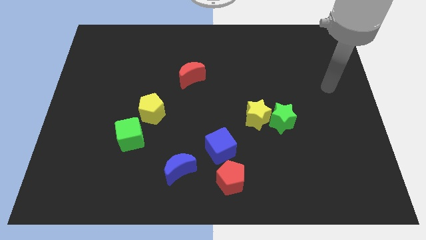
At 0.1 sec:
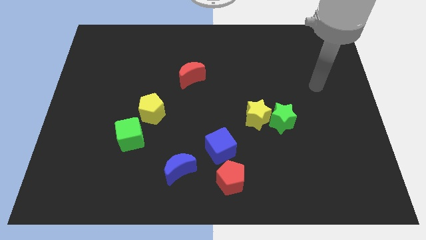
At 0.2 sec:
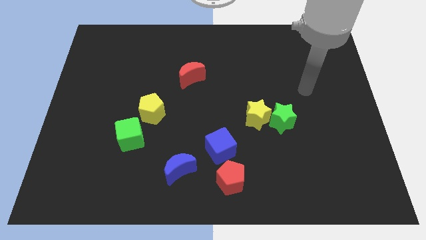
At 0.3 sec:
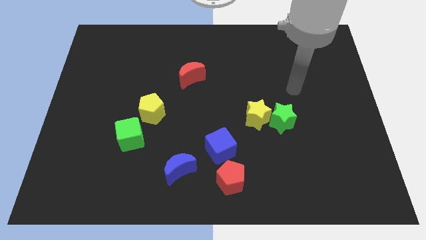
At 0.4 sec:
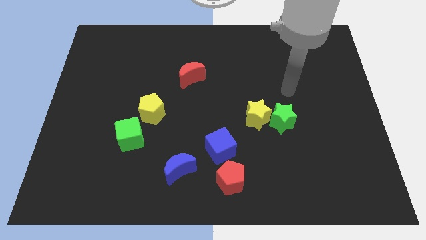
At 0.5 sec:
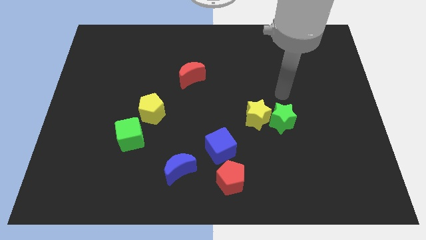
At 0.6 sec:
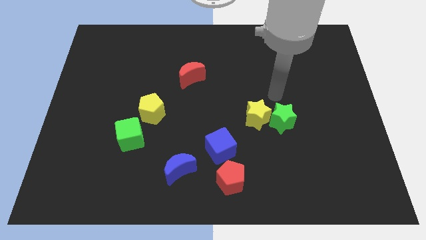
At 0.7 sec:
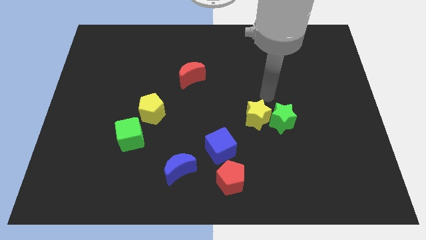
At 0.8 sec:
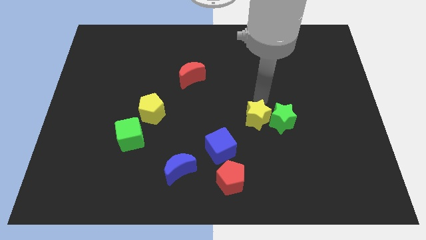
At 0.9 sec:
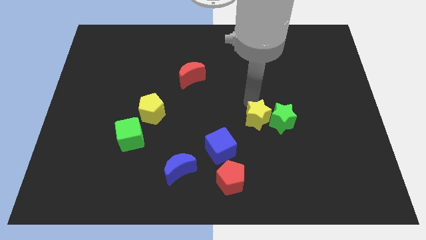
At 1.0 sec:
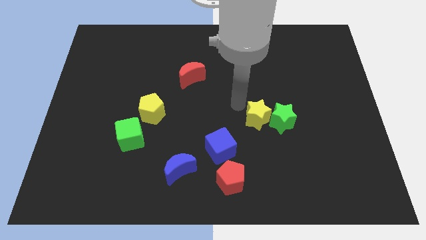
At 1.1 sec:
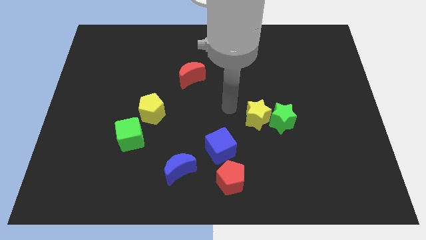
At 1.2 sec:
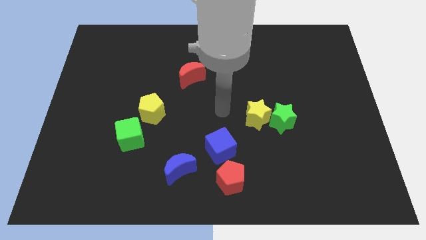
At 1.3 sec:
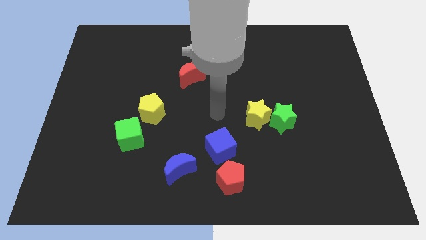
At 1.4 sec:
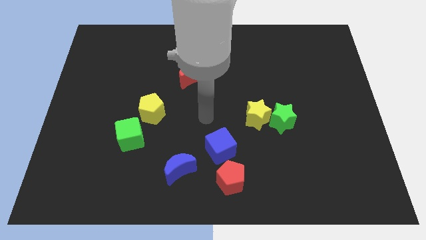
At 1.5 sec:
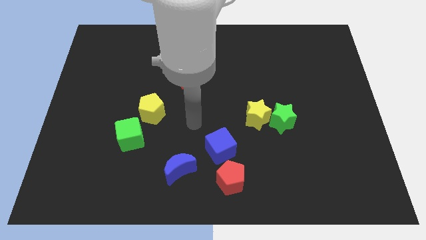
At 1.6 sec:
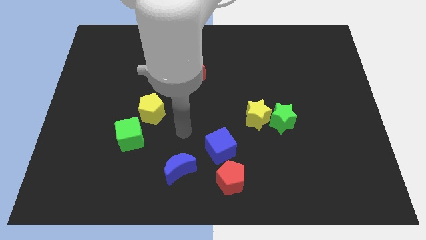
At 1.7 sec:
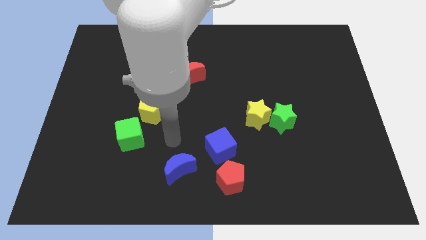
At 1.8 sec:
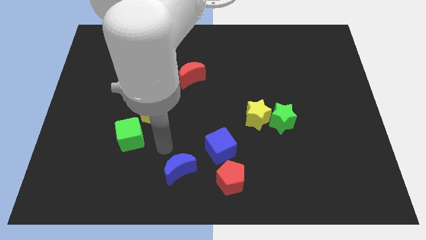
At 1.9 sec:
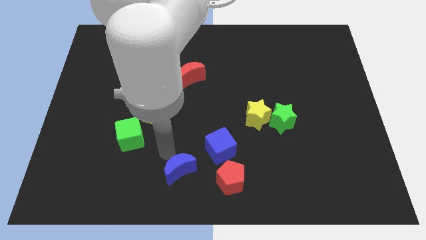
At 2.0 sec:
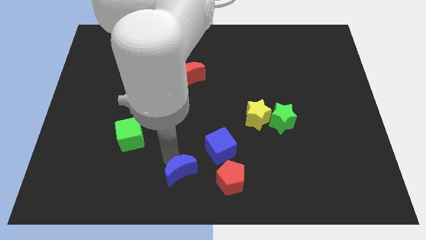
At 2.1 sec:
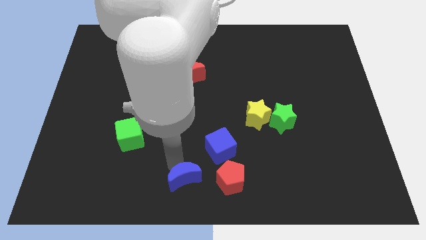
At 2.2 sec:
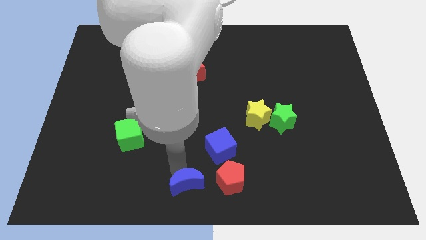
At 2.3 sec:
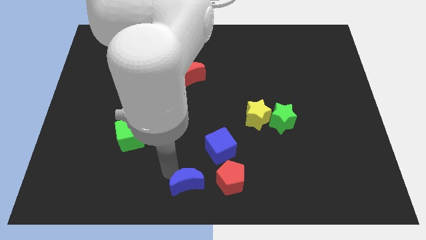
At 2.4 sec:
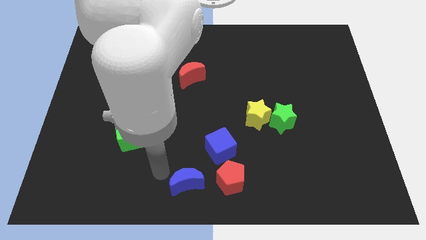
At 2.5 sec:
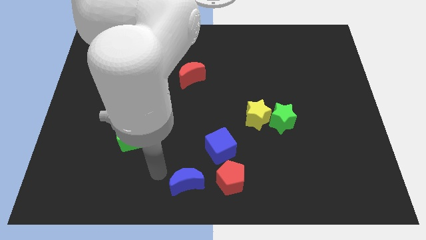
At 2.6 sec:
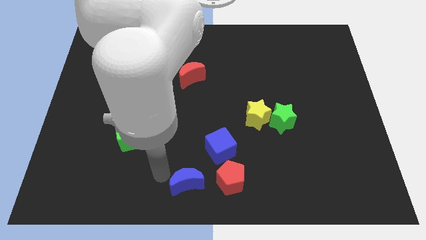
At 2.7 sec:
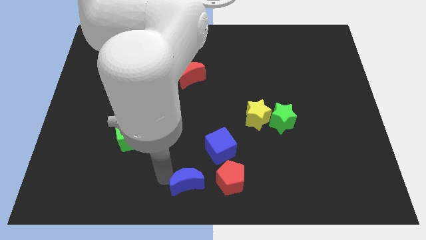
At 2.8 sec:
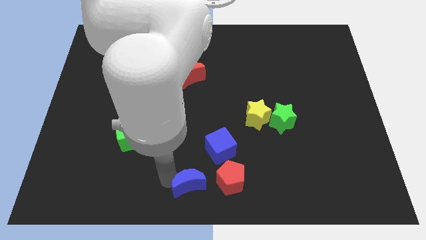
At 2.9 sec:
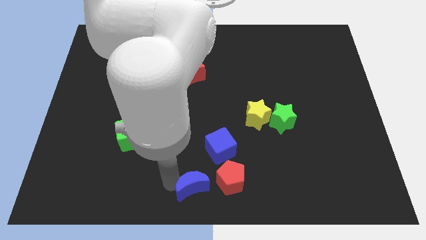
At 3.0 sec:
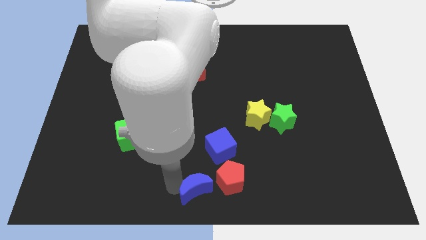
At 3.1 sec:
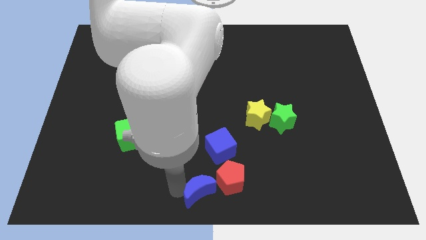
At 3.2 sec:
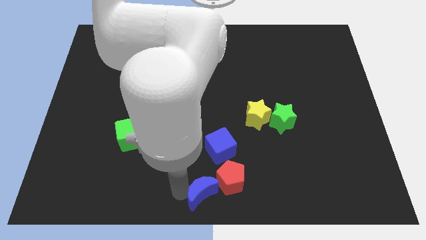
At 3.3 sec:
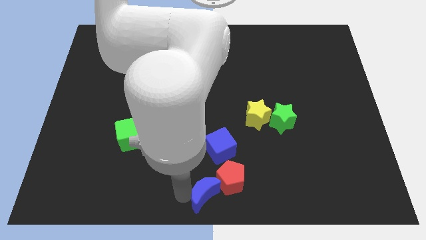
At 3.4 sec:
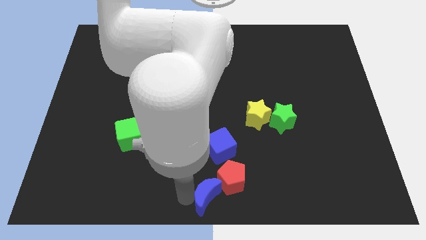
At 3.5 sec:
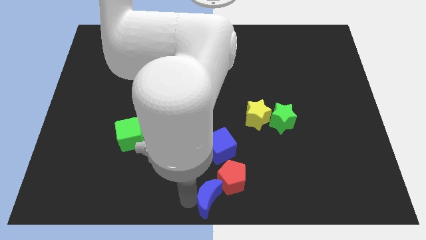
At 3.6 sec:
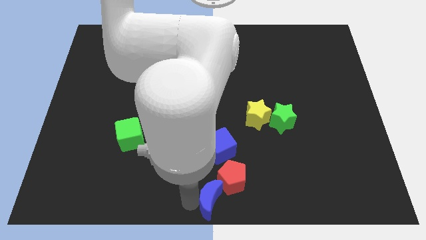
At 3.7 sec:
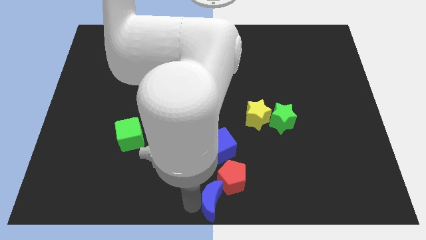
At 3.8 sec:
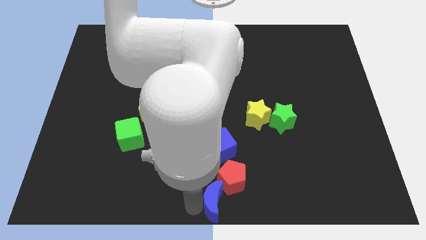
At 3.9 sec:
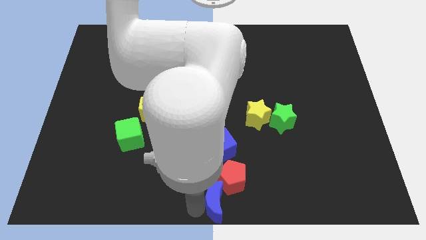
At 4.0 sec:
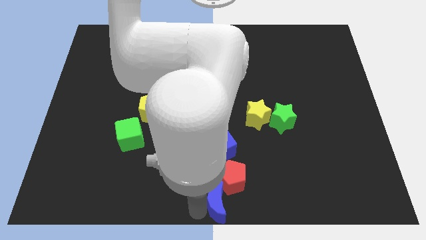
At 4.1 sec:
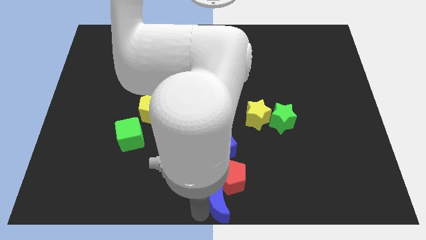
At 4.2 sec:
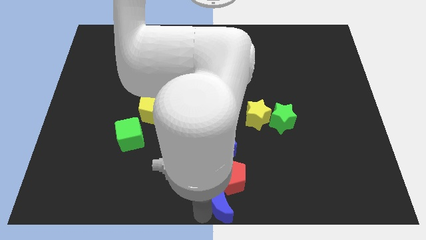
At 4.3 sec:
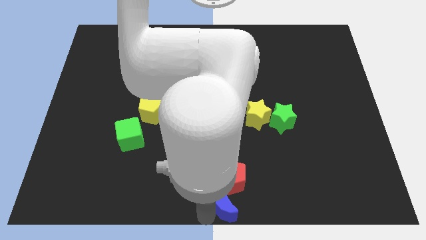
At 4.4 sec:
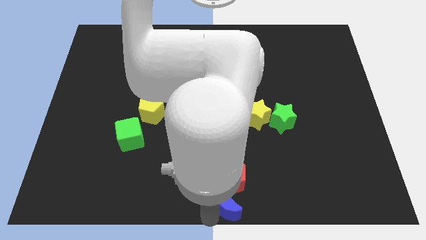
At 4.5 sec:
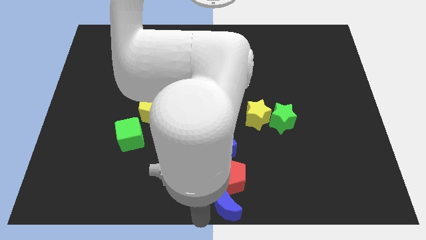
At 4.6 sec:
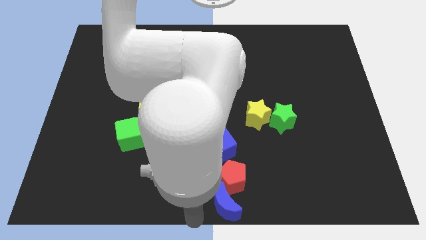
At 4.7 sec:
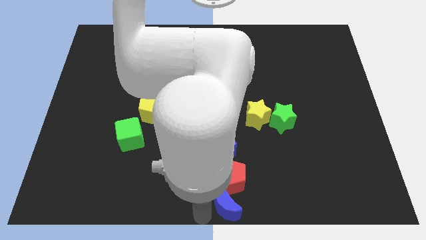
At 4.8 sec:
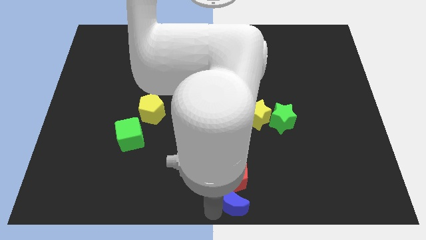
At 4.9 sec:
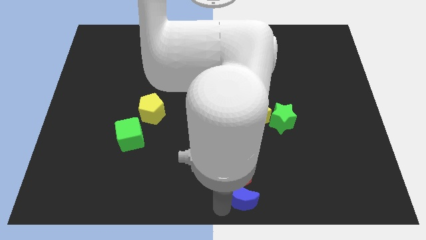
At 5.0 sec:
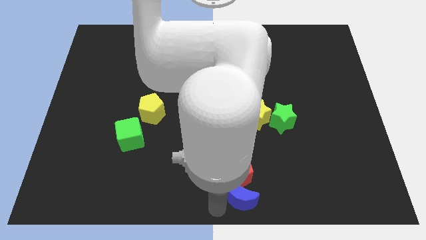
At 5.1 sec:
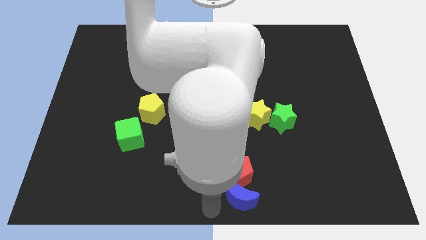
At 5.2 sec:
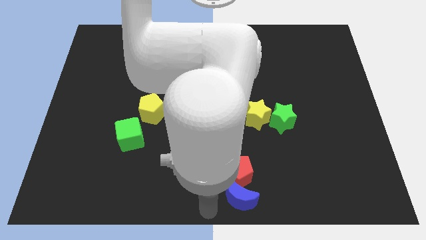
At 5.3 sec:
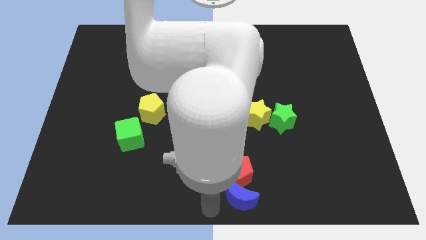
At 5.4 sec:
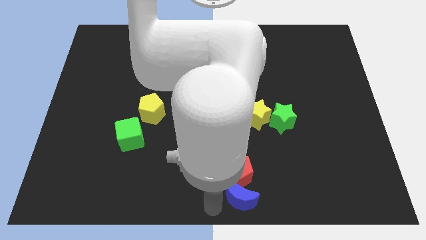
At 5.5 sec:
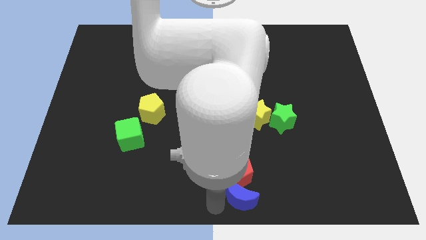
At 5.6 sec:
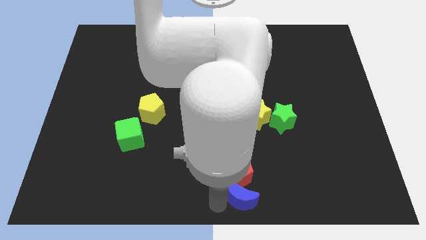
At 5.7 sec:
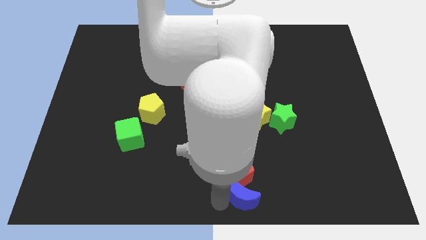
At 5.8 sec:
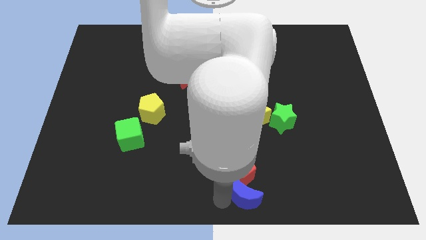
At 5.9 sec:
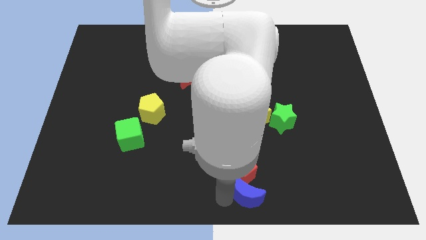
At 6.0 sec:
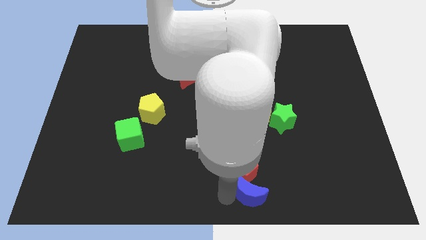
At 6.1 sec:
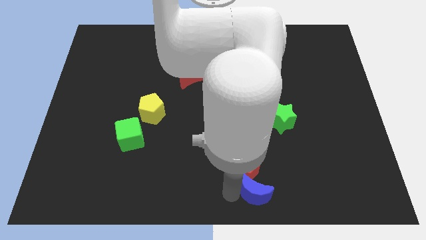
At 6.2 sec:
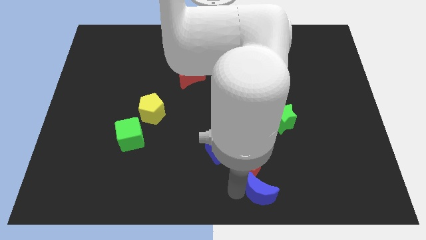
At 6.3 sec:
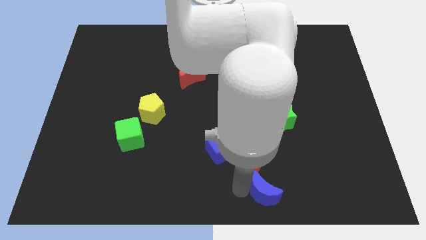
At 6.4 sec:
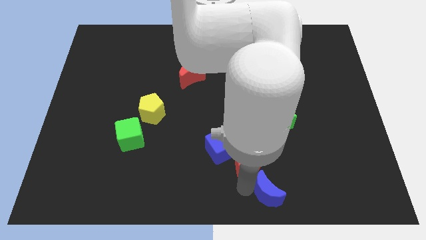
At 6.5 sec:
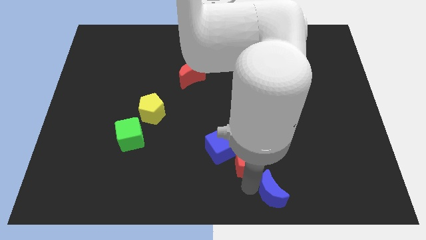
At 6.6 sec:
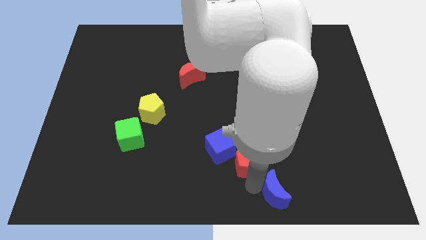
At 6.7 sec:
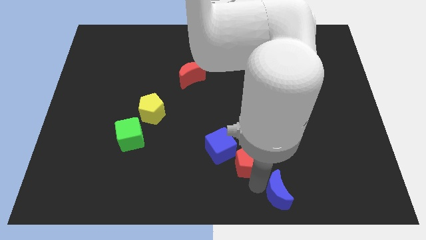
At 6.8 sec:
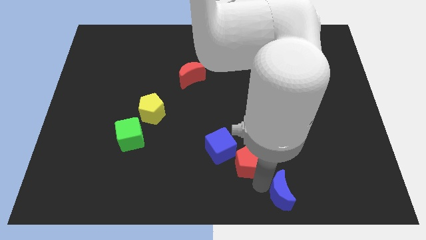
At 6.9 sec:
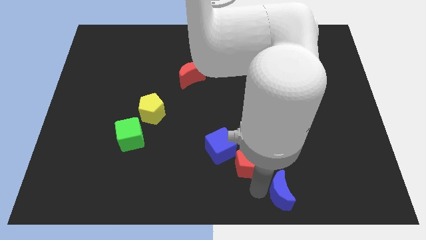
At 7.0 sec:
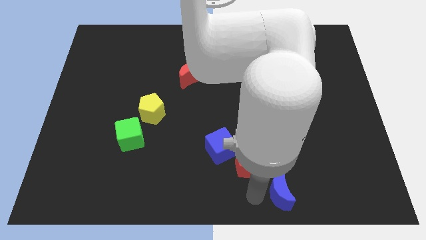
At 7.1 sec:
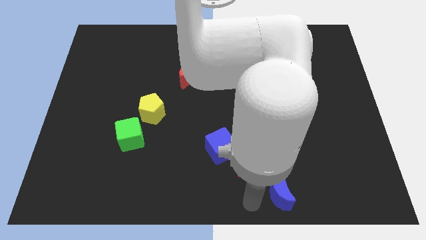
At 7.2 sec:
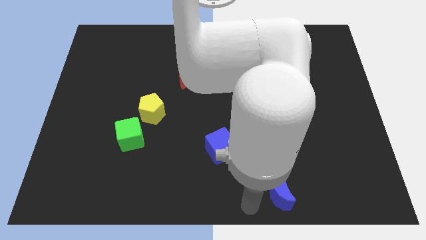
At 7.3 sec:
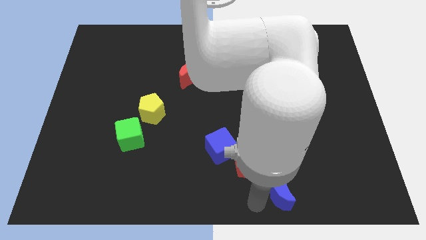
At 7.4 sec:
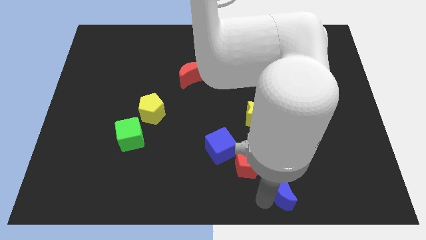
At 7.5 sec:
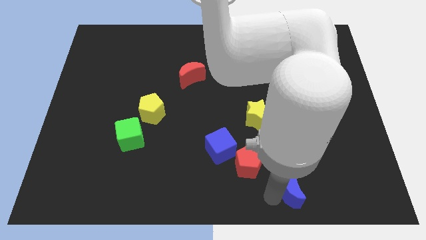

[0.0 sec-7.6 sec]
slide the blue moon right

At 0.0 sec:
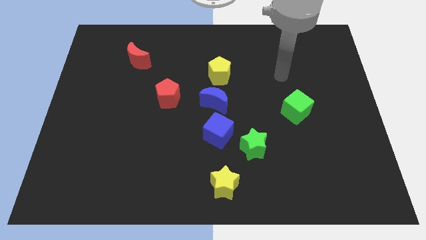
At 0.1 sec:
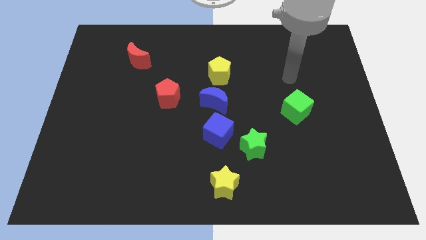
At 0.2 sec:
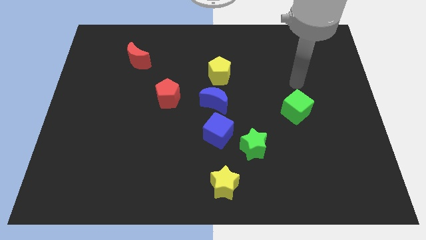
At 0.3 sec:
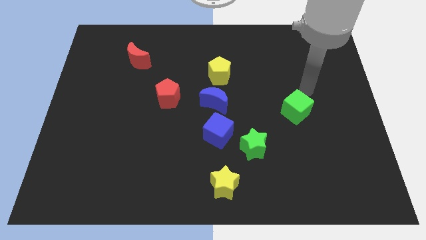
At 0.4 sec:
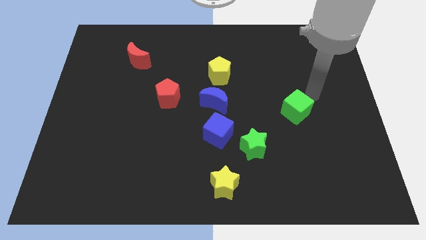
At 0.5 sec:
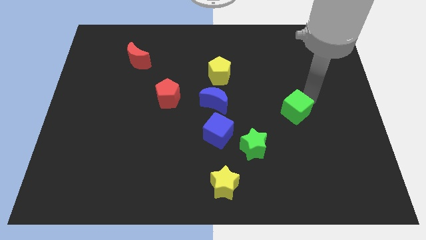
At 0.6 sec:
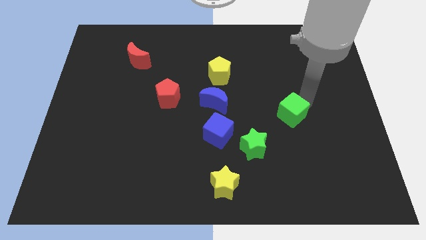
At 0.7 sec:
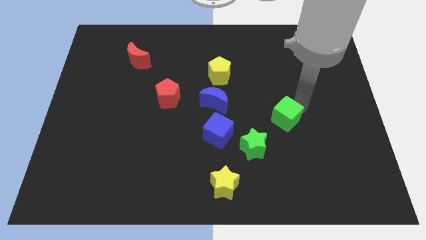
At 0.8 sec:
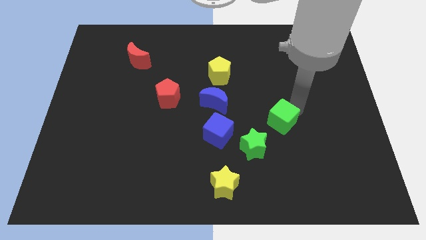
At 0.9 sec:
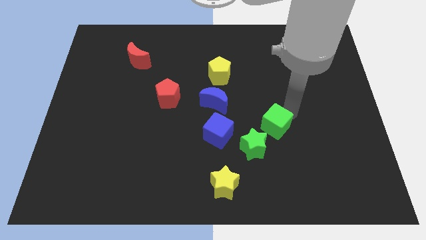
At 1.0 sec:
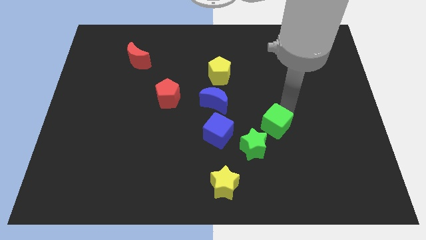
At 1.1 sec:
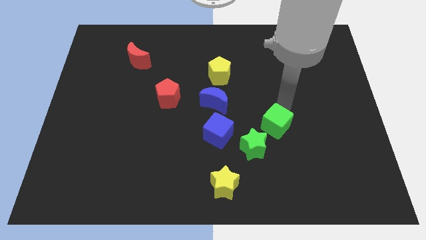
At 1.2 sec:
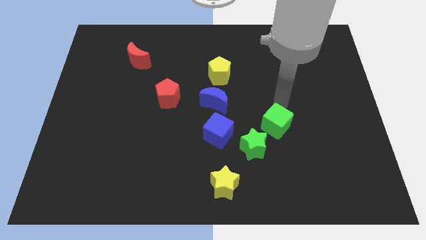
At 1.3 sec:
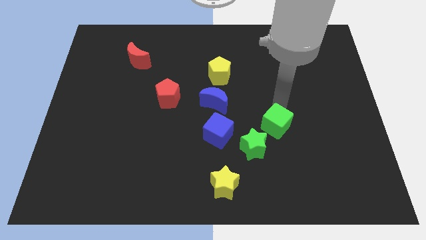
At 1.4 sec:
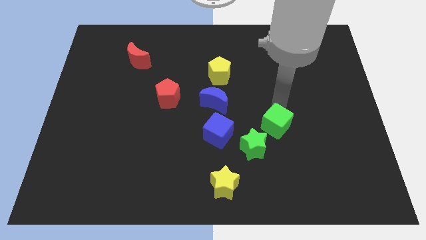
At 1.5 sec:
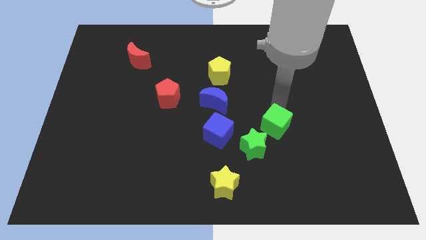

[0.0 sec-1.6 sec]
slightly push the green cube down and then to the left
